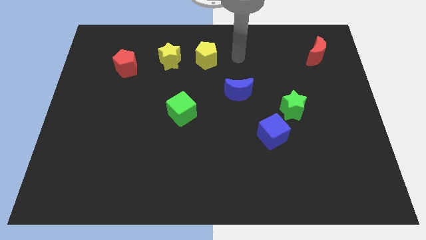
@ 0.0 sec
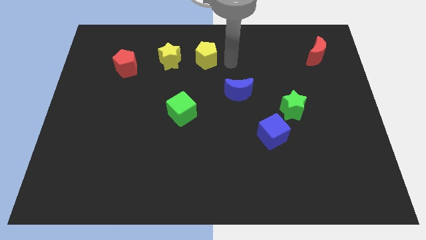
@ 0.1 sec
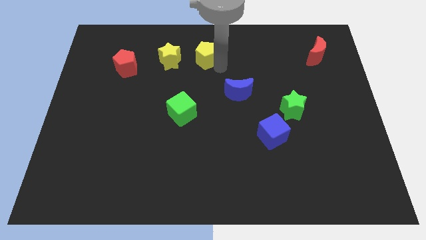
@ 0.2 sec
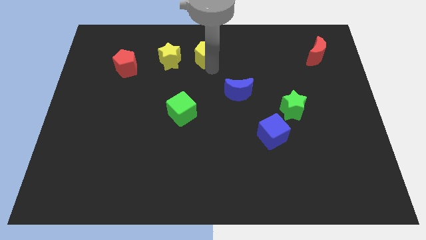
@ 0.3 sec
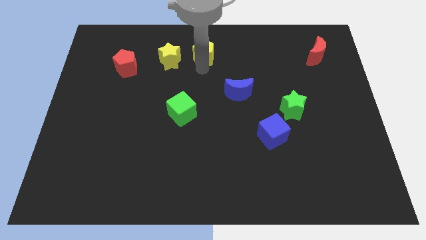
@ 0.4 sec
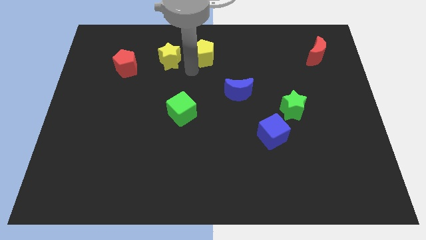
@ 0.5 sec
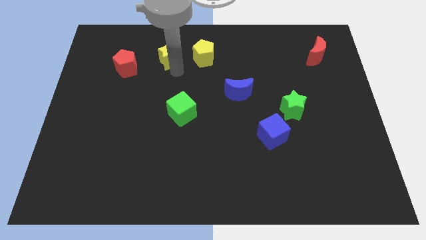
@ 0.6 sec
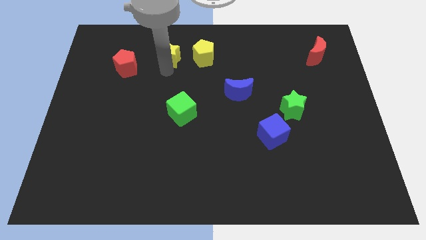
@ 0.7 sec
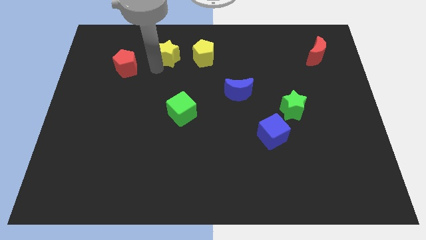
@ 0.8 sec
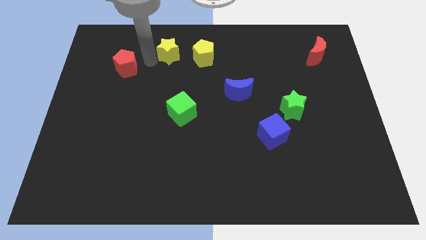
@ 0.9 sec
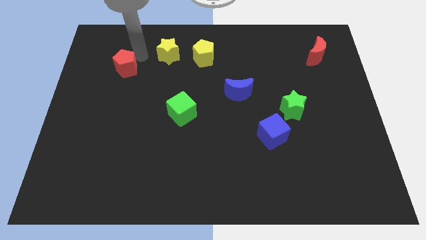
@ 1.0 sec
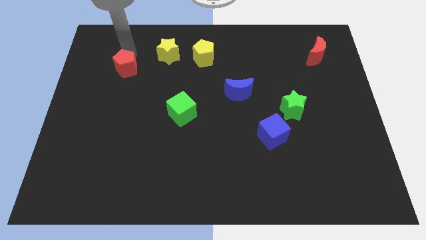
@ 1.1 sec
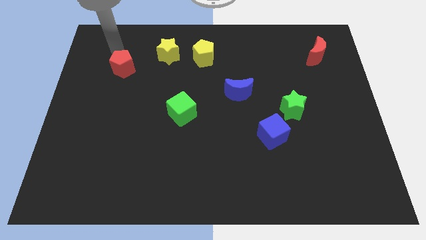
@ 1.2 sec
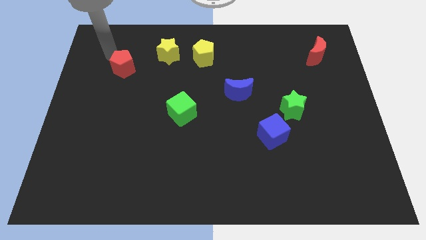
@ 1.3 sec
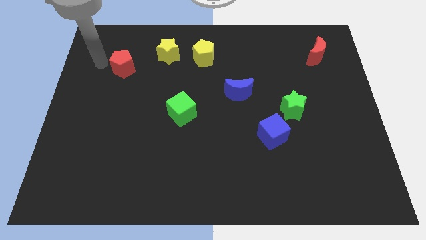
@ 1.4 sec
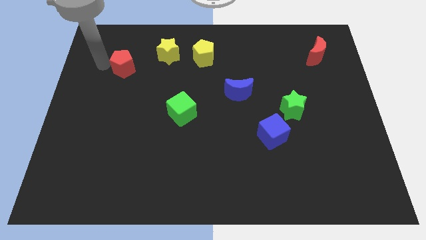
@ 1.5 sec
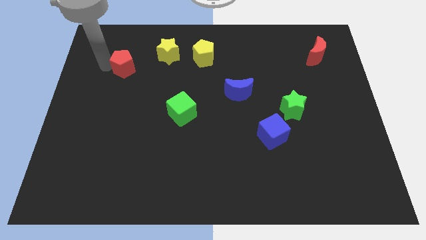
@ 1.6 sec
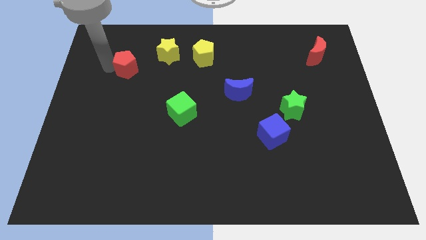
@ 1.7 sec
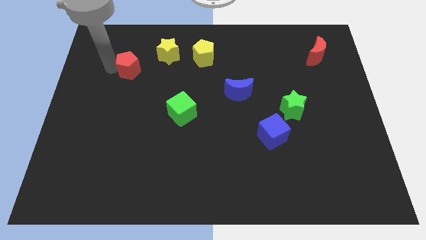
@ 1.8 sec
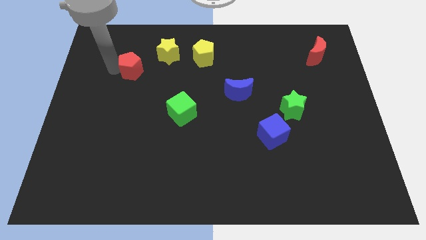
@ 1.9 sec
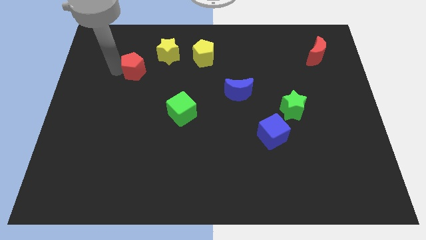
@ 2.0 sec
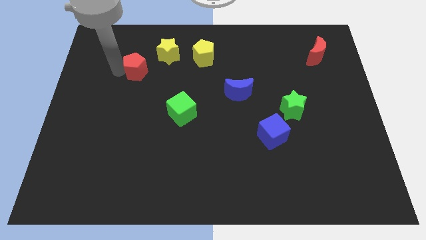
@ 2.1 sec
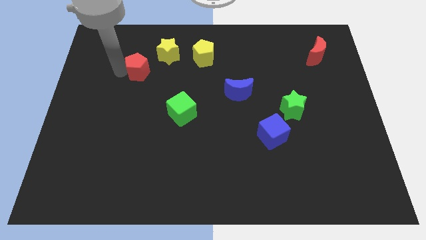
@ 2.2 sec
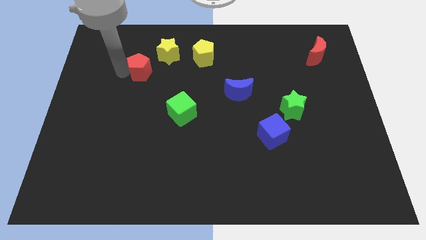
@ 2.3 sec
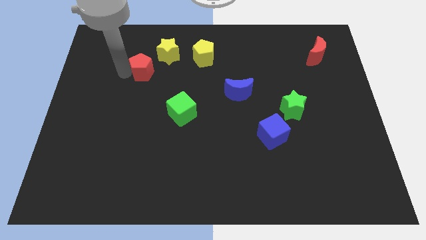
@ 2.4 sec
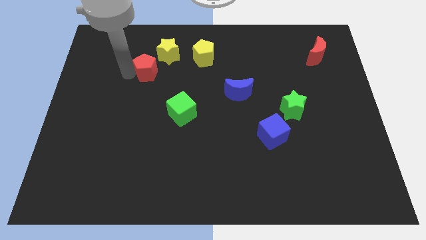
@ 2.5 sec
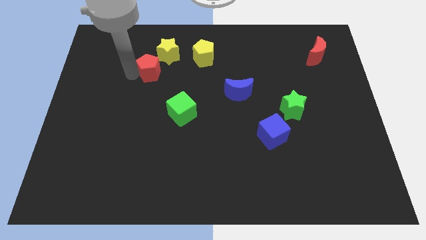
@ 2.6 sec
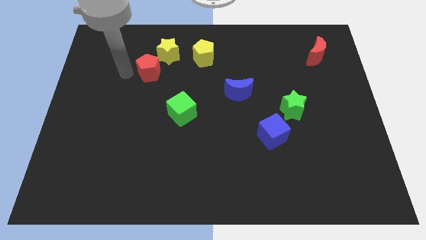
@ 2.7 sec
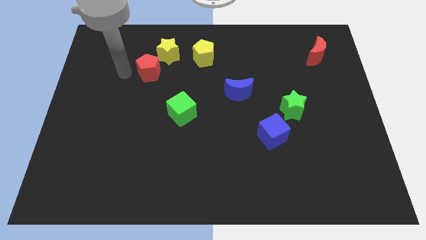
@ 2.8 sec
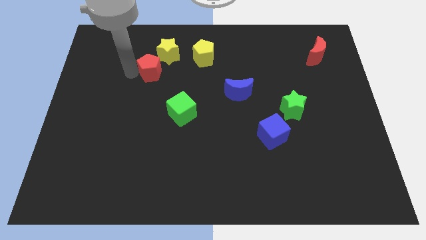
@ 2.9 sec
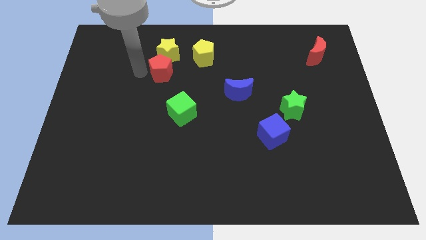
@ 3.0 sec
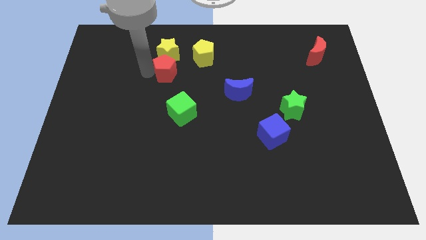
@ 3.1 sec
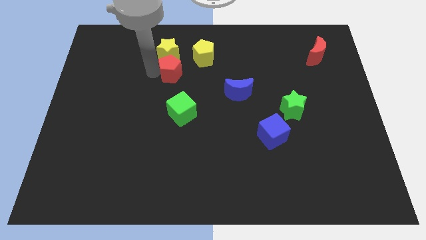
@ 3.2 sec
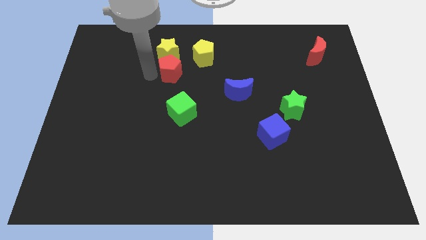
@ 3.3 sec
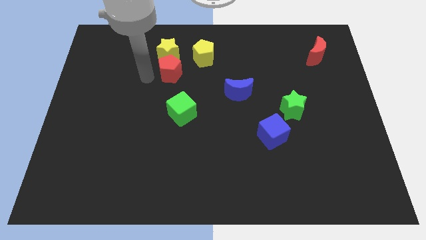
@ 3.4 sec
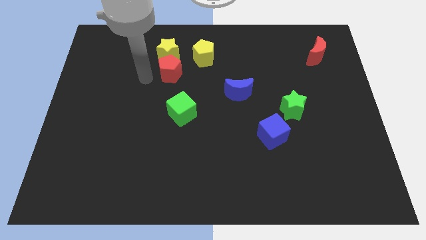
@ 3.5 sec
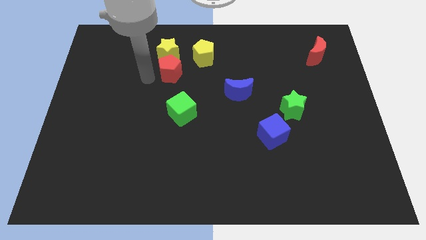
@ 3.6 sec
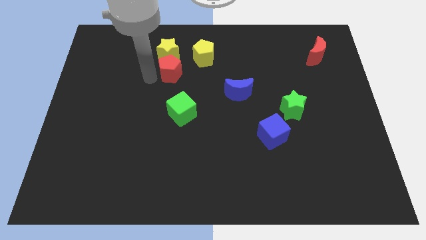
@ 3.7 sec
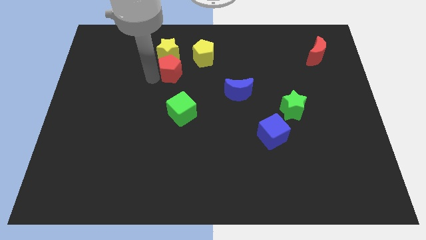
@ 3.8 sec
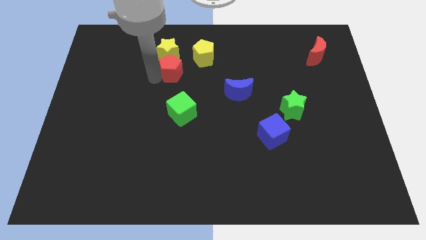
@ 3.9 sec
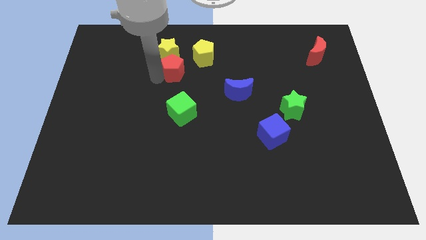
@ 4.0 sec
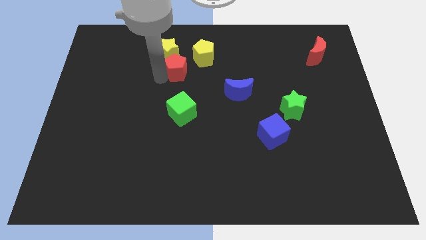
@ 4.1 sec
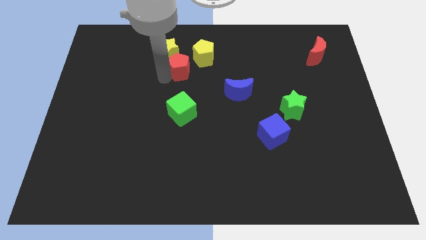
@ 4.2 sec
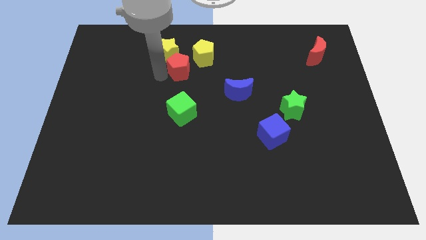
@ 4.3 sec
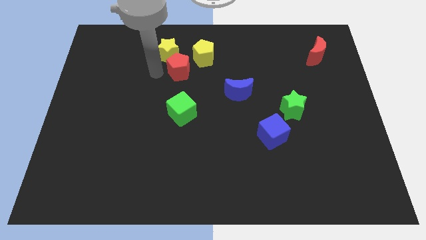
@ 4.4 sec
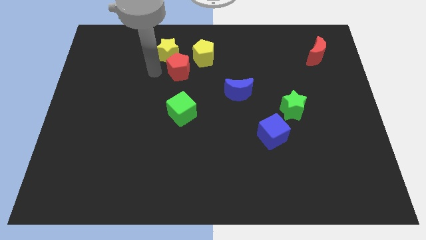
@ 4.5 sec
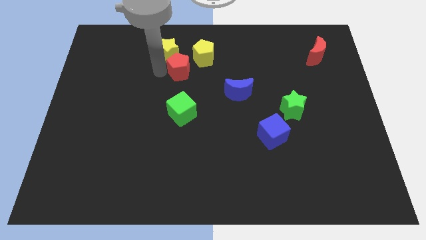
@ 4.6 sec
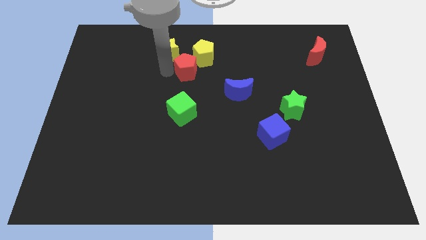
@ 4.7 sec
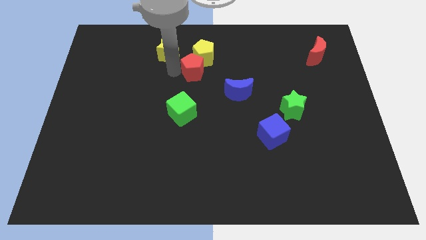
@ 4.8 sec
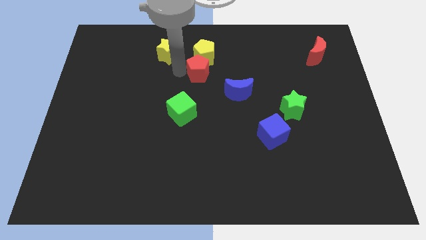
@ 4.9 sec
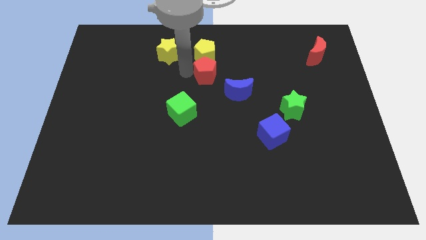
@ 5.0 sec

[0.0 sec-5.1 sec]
put the red pentagon to the bottom right of the yellow pentagon

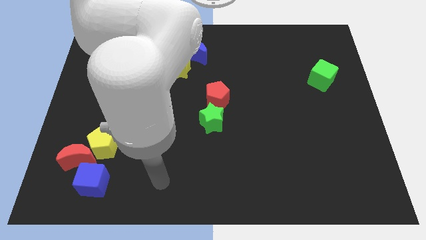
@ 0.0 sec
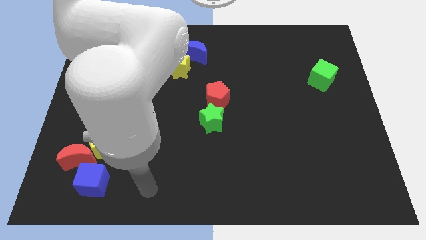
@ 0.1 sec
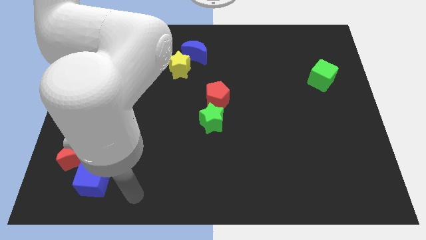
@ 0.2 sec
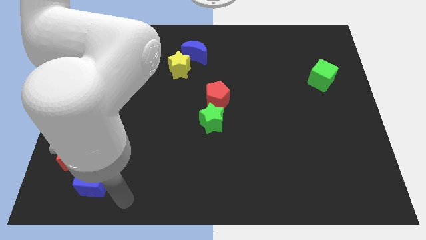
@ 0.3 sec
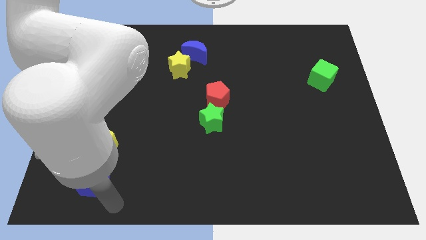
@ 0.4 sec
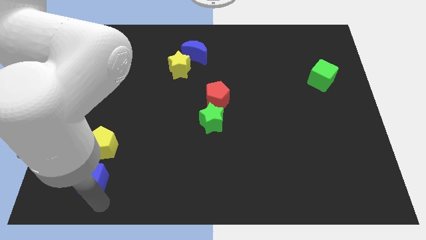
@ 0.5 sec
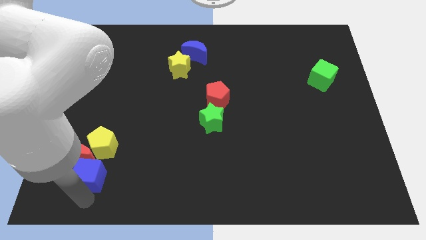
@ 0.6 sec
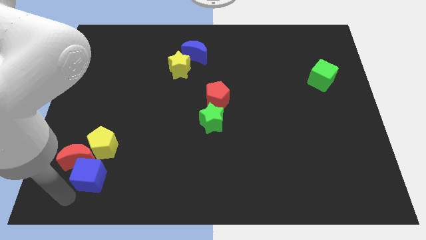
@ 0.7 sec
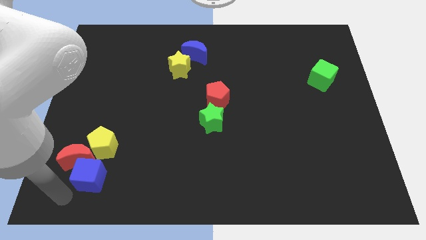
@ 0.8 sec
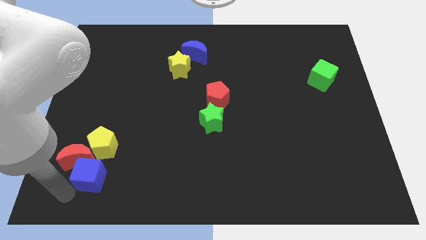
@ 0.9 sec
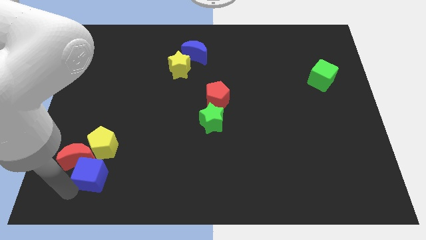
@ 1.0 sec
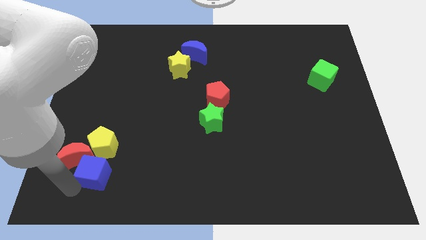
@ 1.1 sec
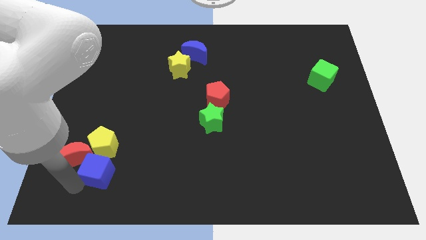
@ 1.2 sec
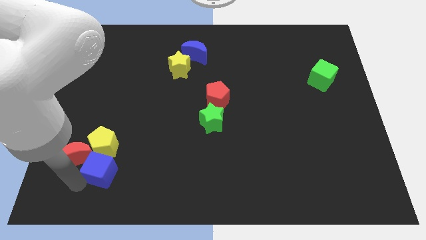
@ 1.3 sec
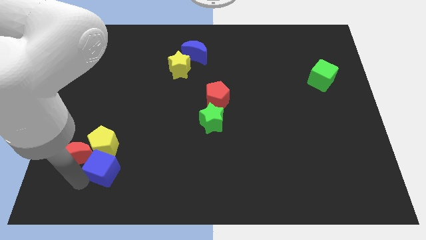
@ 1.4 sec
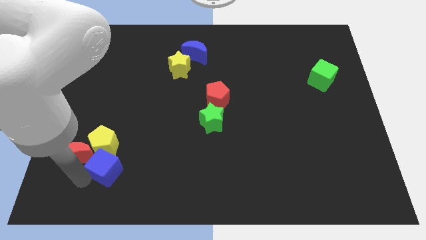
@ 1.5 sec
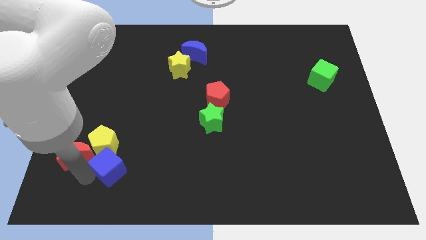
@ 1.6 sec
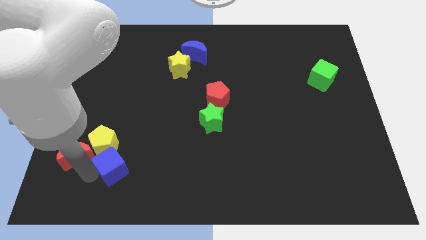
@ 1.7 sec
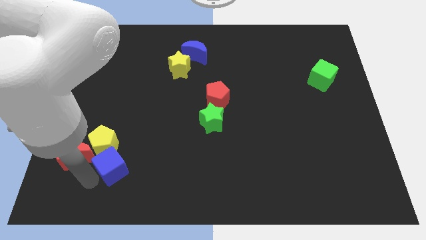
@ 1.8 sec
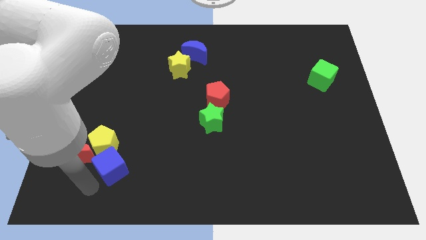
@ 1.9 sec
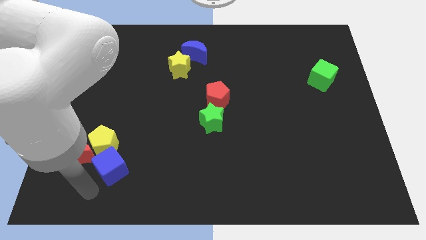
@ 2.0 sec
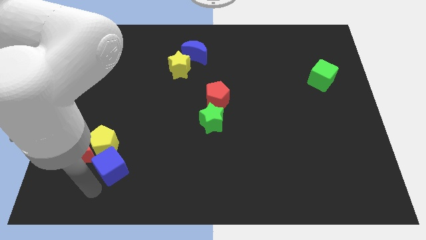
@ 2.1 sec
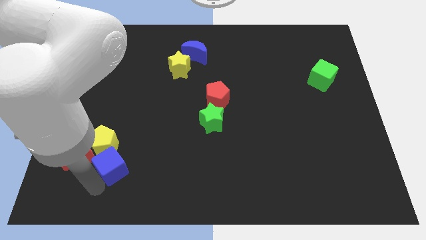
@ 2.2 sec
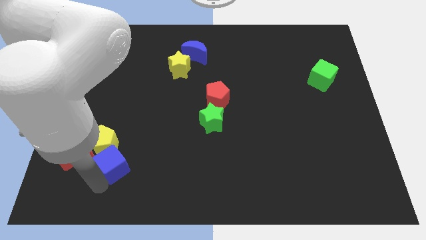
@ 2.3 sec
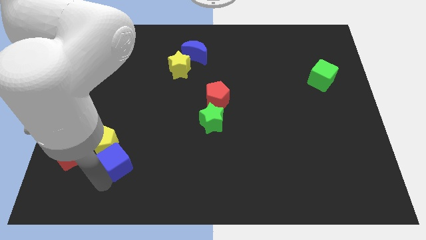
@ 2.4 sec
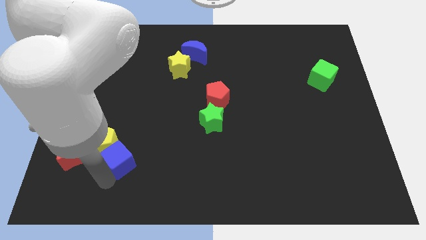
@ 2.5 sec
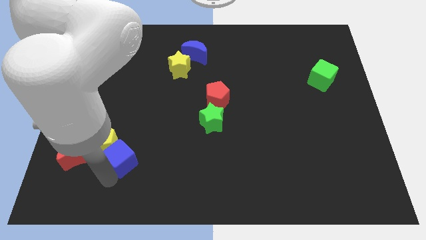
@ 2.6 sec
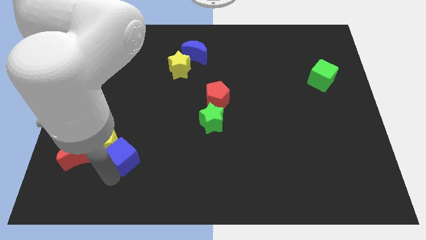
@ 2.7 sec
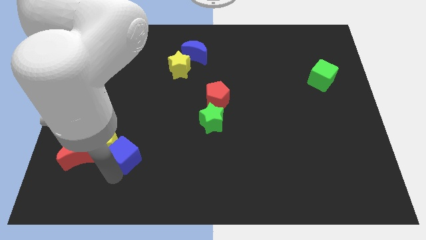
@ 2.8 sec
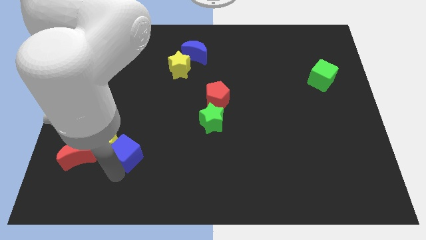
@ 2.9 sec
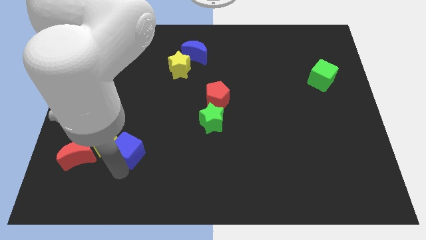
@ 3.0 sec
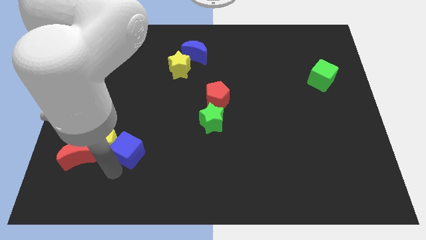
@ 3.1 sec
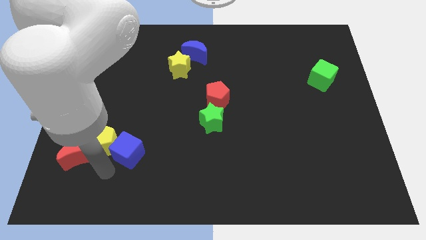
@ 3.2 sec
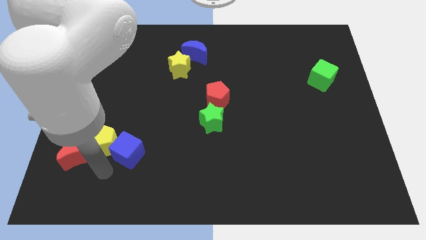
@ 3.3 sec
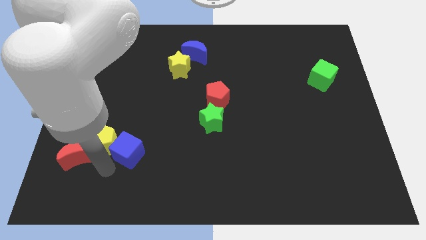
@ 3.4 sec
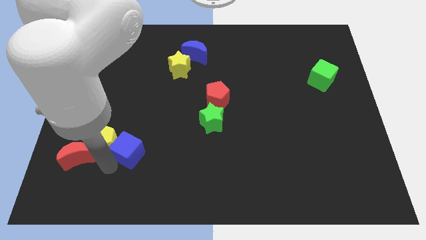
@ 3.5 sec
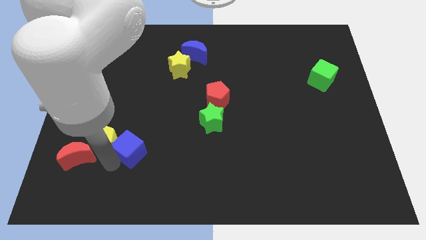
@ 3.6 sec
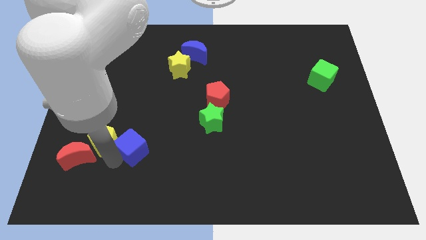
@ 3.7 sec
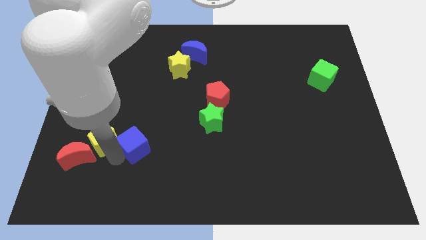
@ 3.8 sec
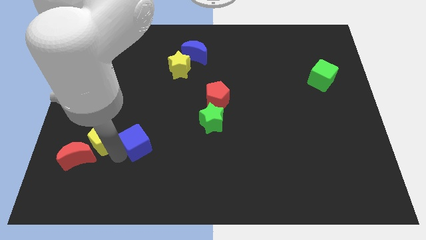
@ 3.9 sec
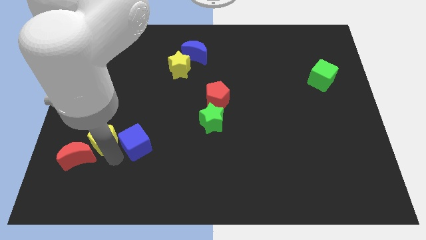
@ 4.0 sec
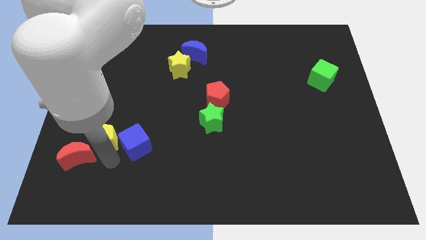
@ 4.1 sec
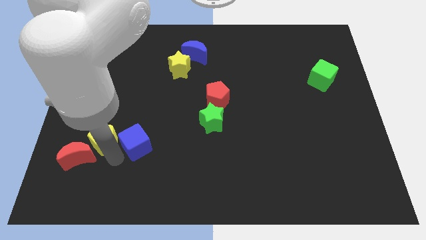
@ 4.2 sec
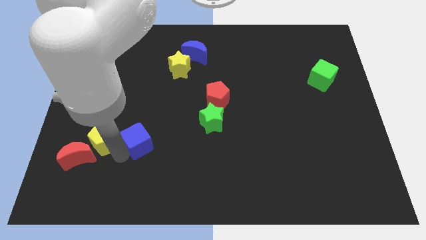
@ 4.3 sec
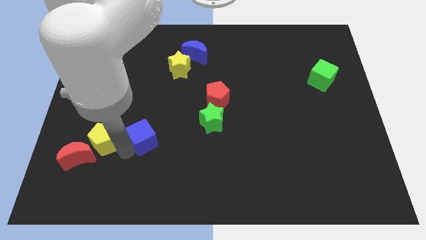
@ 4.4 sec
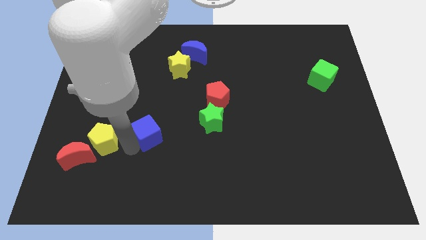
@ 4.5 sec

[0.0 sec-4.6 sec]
slide the blue cube left of the green star
